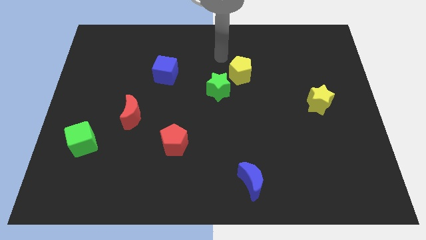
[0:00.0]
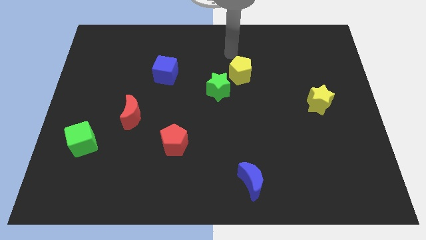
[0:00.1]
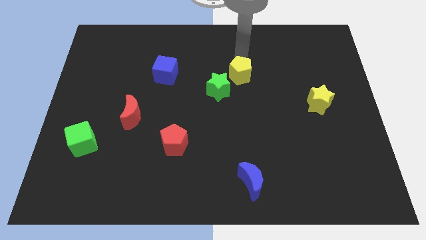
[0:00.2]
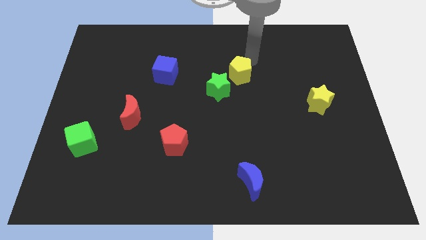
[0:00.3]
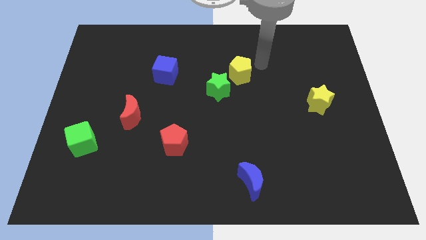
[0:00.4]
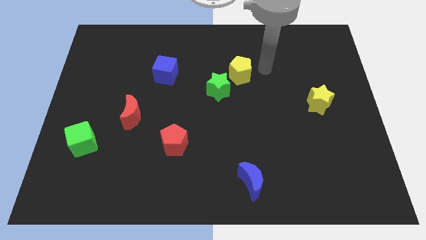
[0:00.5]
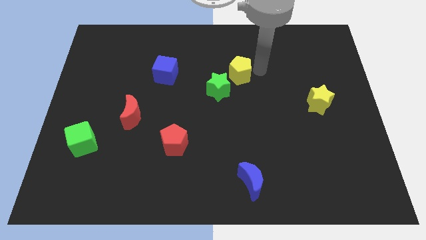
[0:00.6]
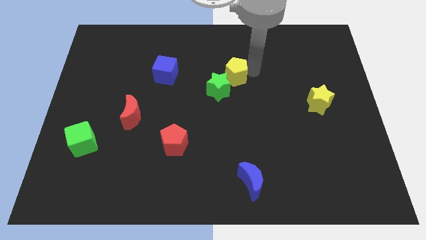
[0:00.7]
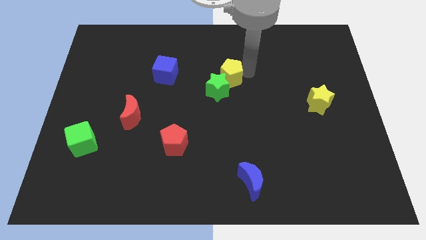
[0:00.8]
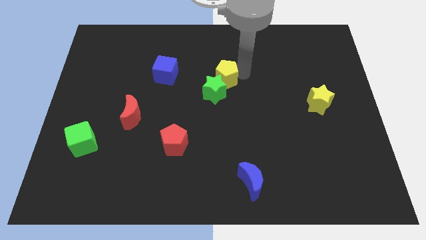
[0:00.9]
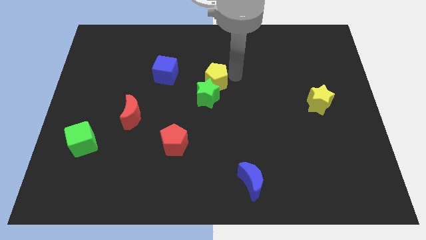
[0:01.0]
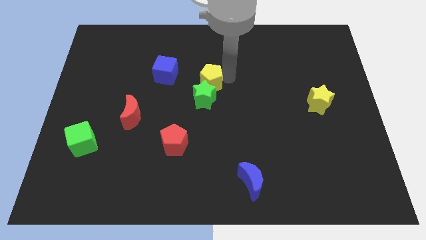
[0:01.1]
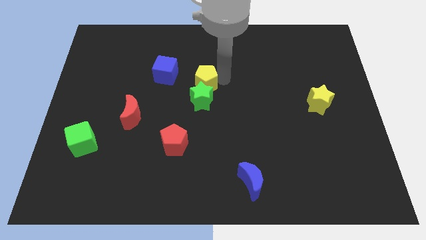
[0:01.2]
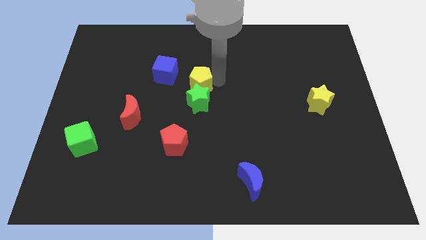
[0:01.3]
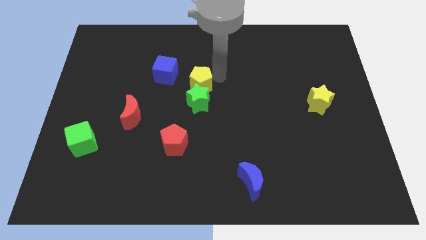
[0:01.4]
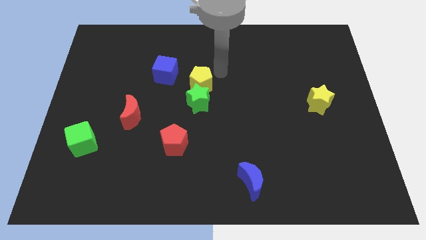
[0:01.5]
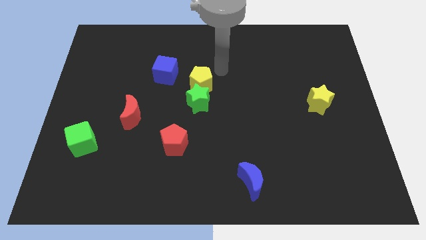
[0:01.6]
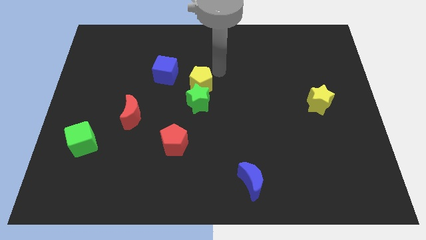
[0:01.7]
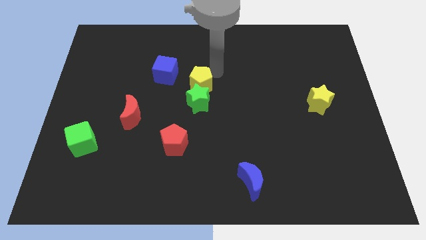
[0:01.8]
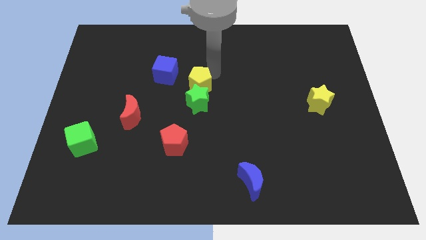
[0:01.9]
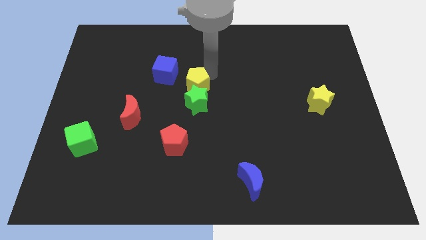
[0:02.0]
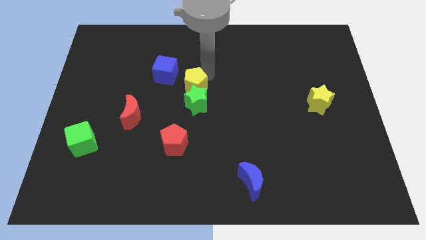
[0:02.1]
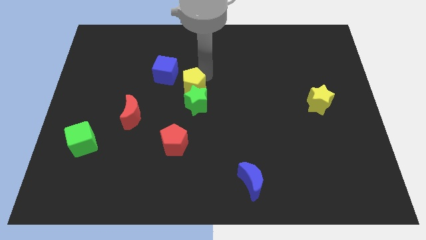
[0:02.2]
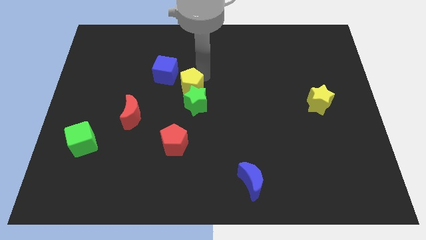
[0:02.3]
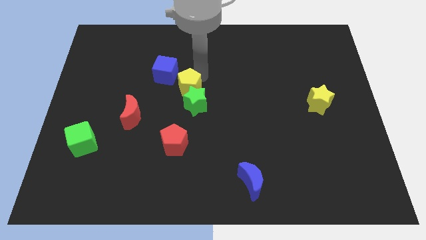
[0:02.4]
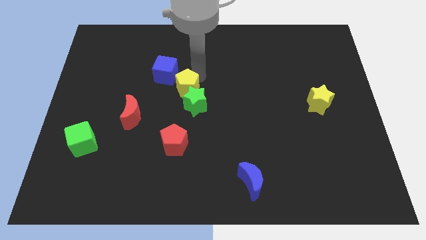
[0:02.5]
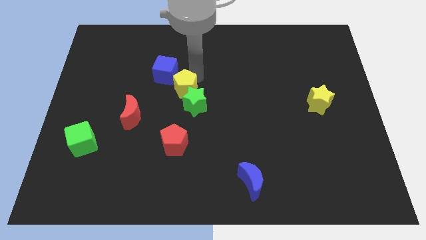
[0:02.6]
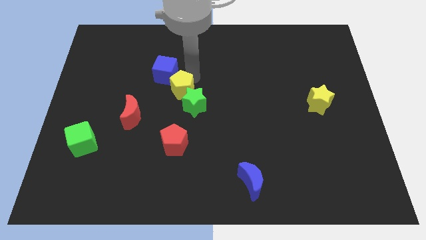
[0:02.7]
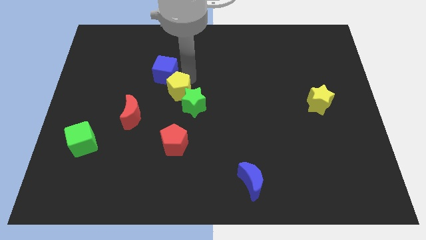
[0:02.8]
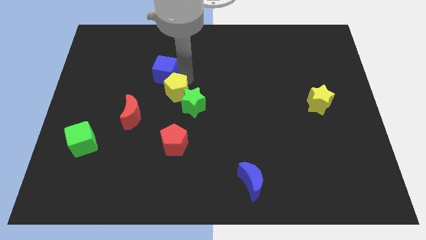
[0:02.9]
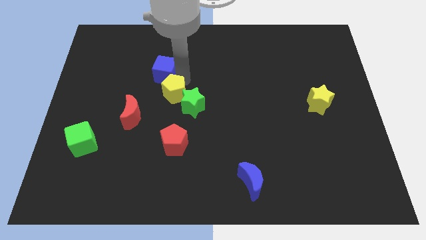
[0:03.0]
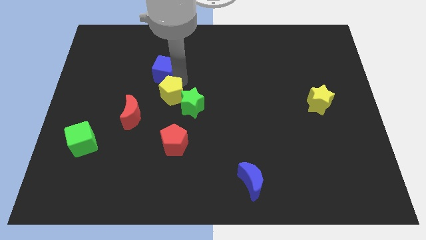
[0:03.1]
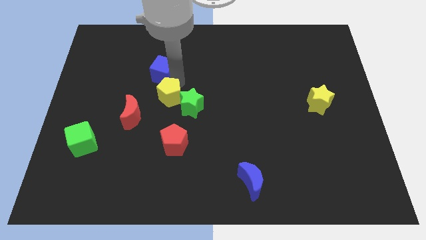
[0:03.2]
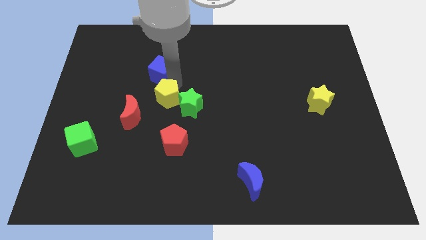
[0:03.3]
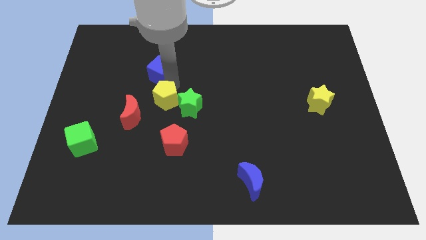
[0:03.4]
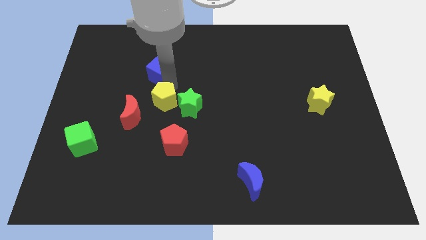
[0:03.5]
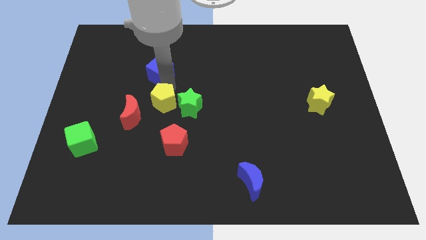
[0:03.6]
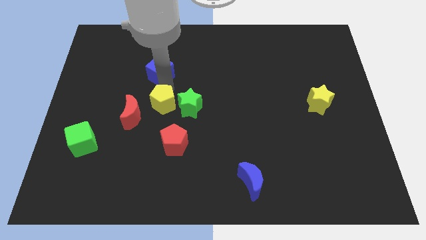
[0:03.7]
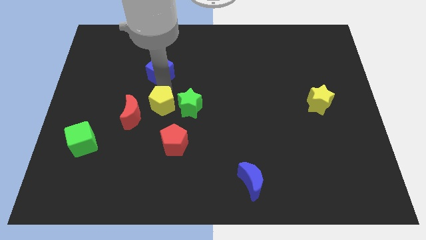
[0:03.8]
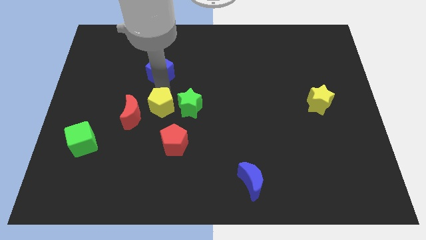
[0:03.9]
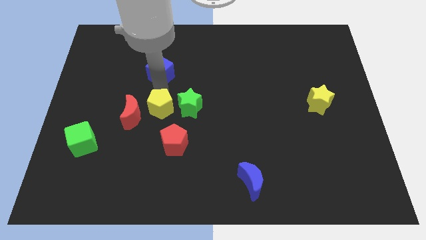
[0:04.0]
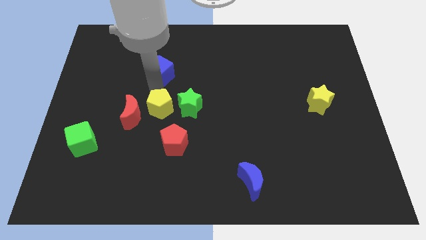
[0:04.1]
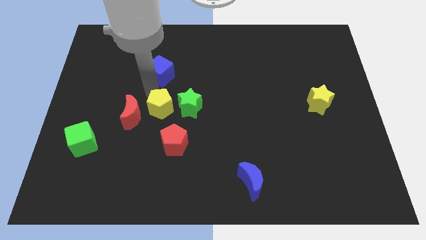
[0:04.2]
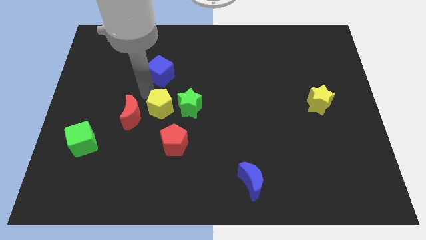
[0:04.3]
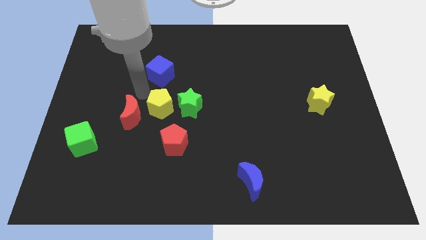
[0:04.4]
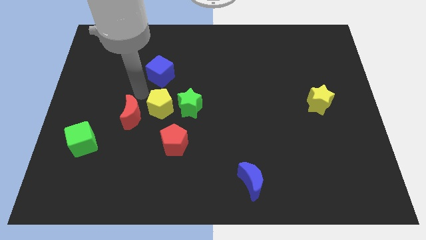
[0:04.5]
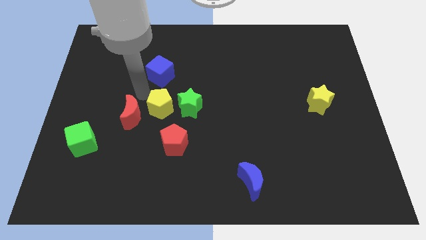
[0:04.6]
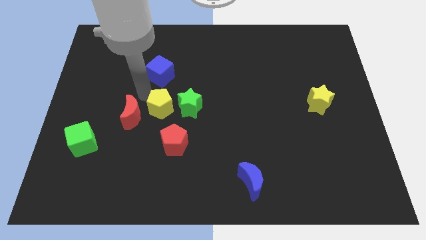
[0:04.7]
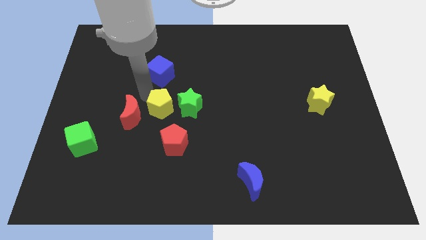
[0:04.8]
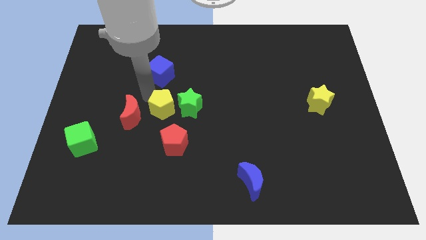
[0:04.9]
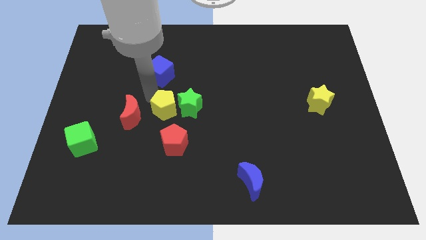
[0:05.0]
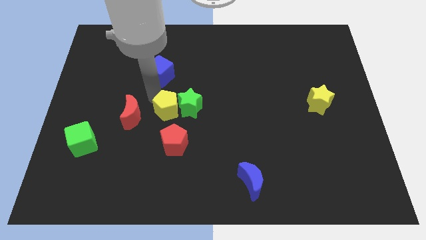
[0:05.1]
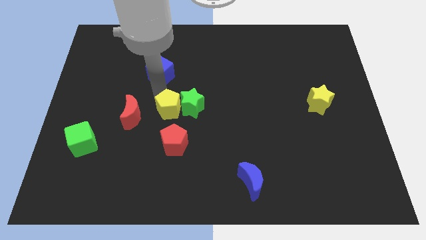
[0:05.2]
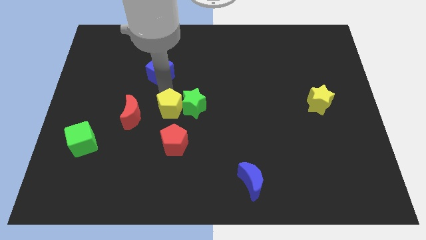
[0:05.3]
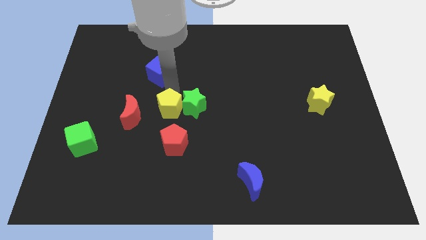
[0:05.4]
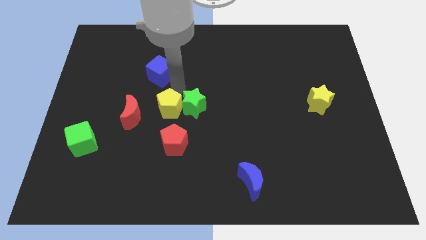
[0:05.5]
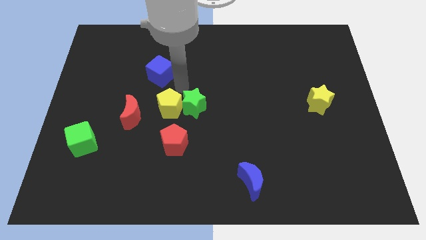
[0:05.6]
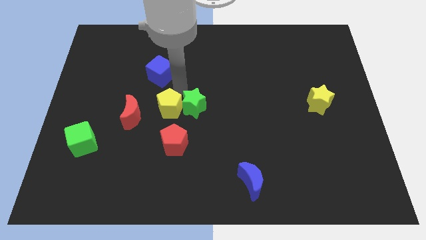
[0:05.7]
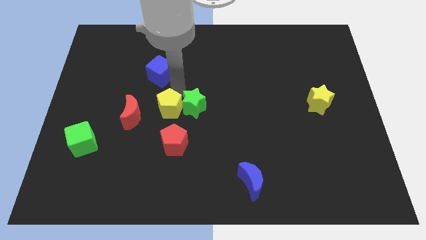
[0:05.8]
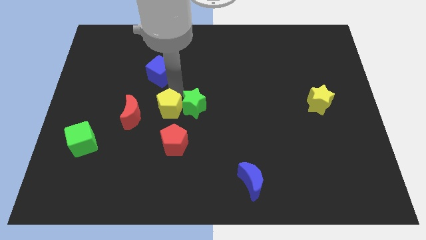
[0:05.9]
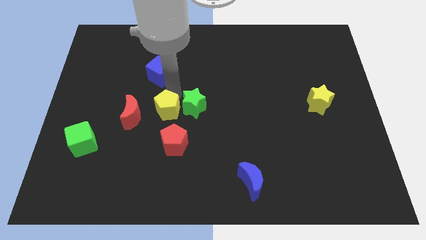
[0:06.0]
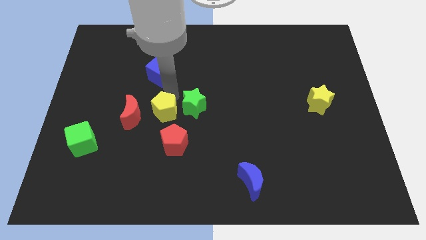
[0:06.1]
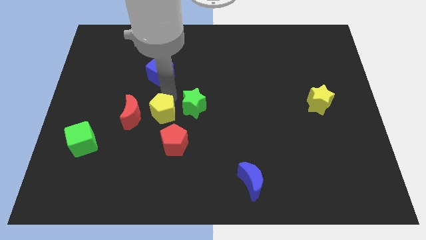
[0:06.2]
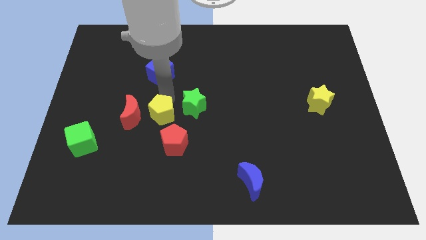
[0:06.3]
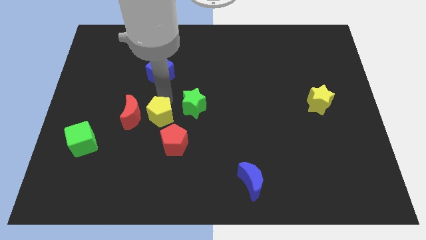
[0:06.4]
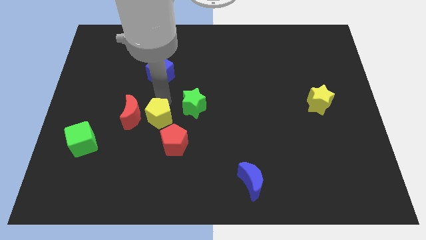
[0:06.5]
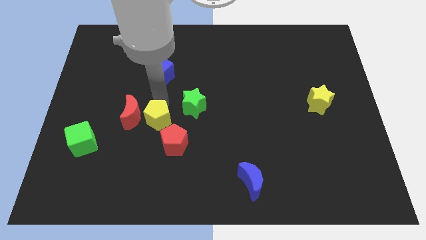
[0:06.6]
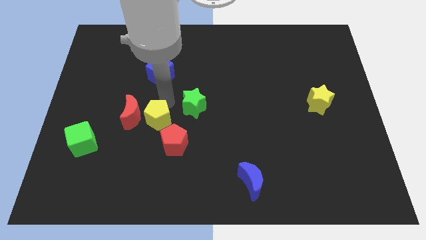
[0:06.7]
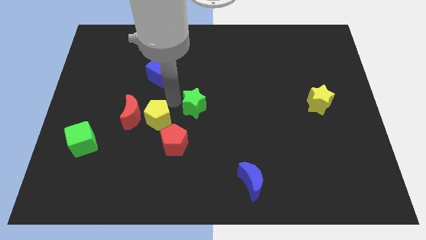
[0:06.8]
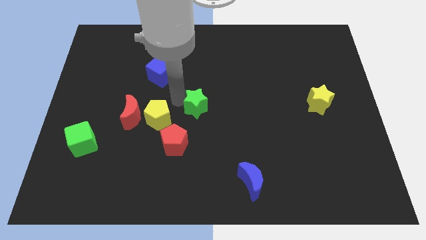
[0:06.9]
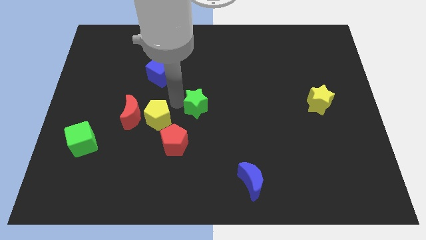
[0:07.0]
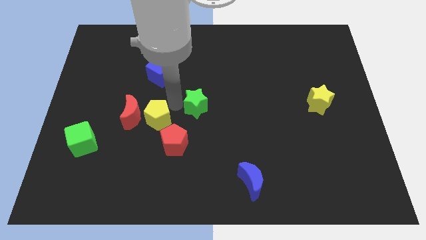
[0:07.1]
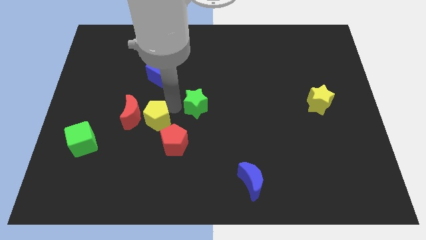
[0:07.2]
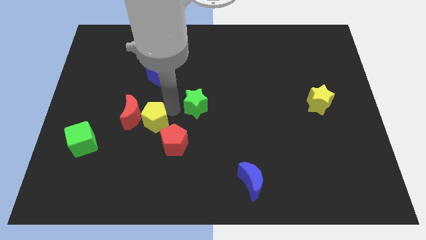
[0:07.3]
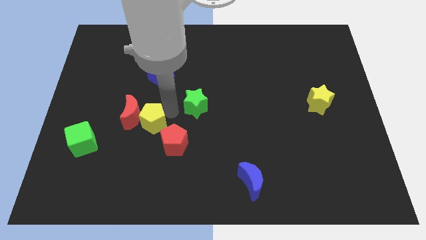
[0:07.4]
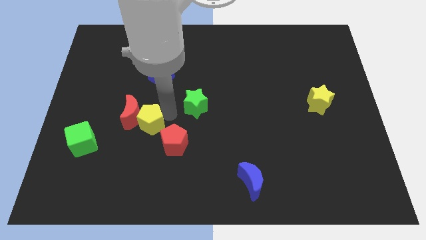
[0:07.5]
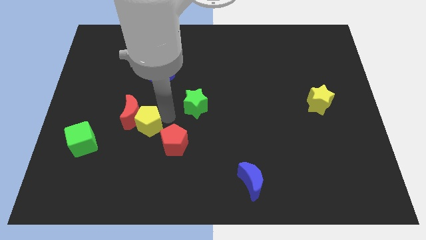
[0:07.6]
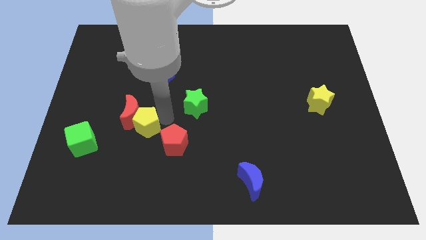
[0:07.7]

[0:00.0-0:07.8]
push the yellow pentagon to the bottom of the red moon

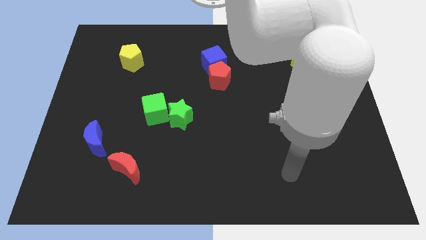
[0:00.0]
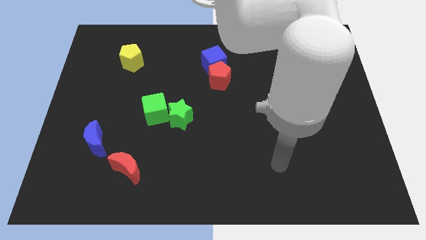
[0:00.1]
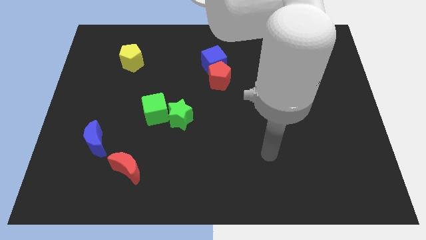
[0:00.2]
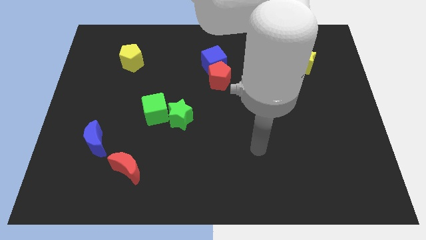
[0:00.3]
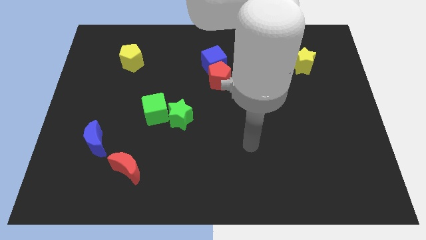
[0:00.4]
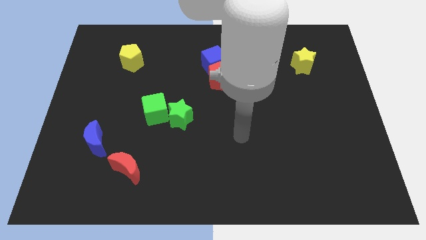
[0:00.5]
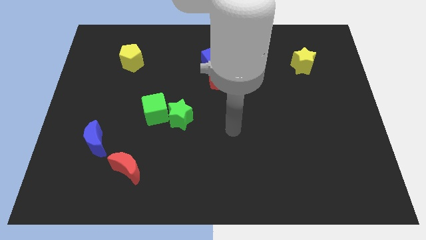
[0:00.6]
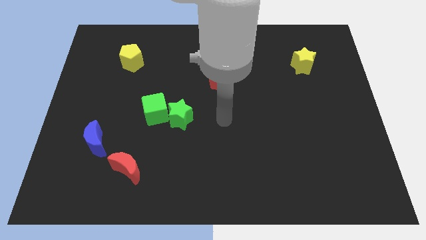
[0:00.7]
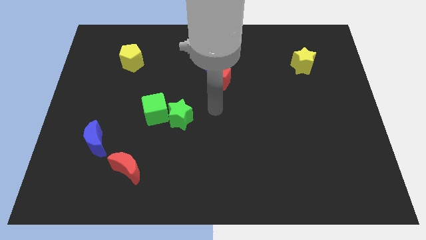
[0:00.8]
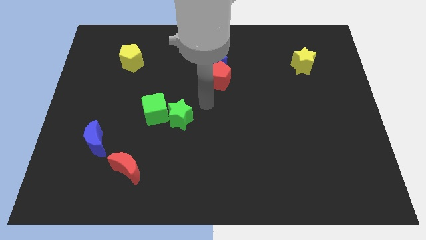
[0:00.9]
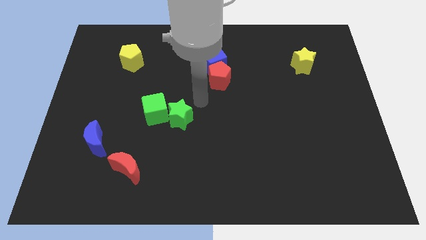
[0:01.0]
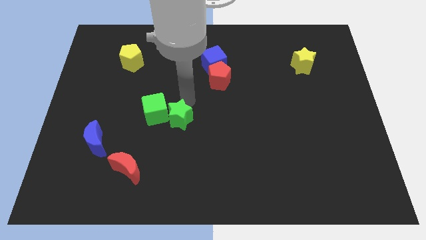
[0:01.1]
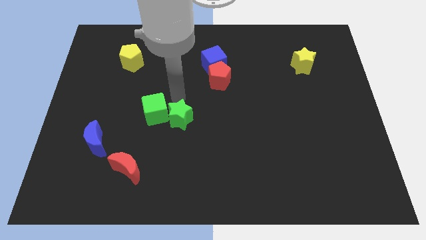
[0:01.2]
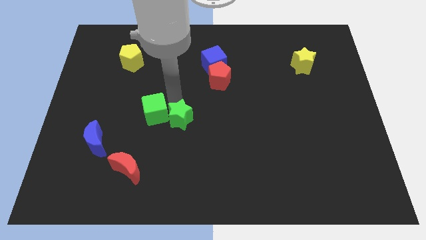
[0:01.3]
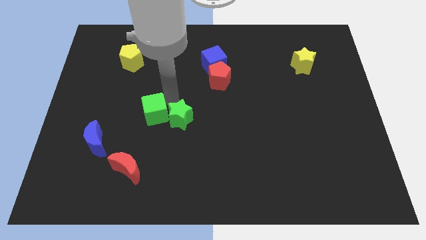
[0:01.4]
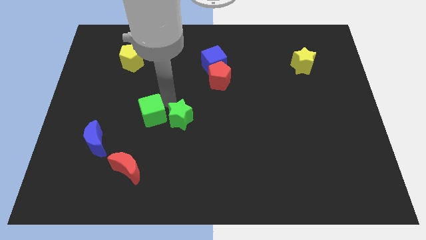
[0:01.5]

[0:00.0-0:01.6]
put the green cube above the red moon
